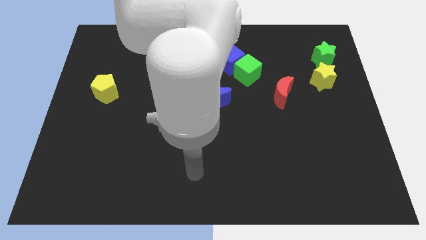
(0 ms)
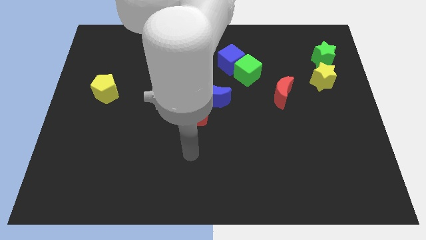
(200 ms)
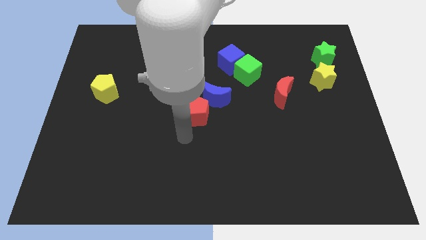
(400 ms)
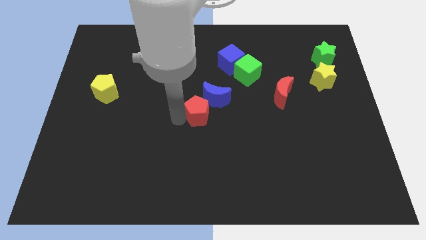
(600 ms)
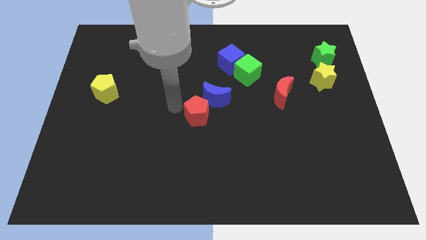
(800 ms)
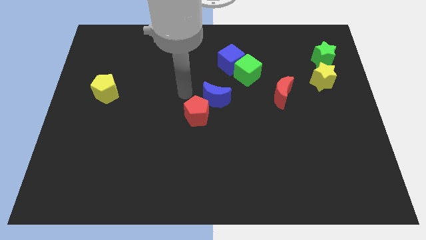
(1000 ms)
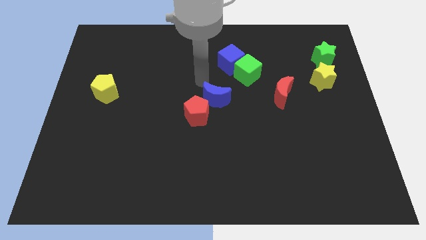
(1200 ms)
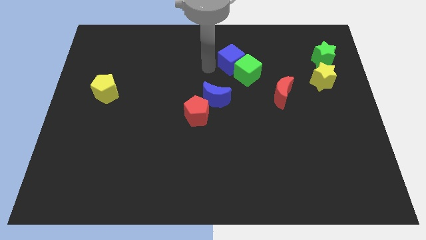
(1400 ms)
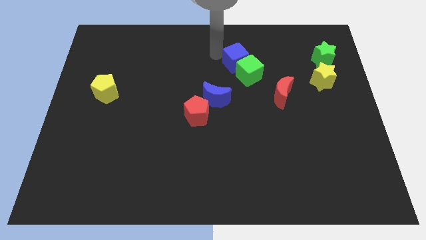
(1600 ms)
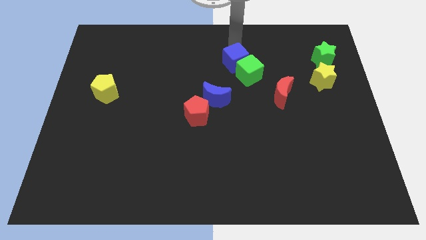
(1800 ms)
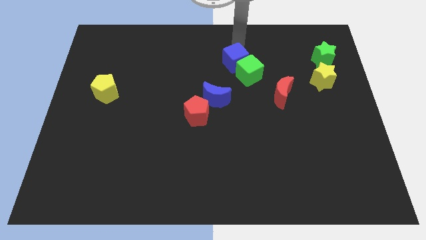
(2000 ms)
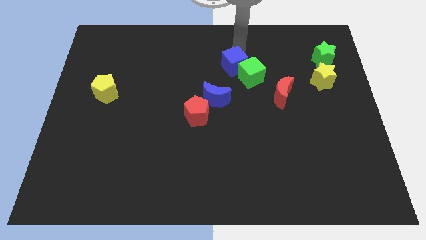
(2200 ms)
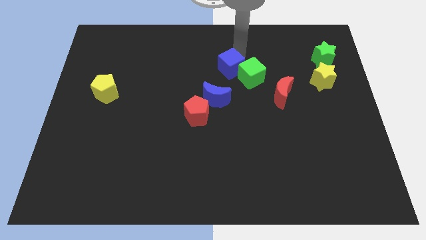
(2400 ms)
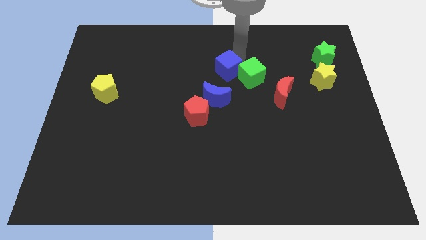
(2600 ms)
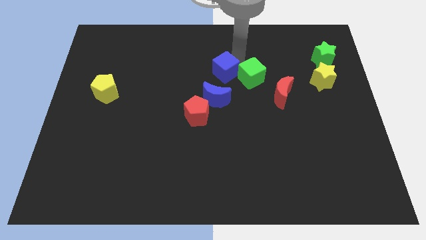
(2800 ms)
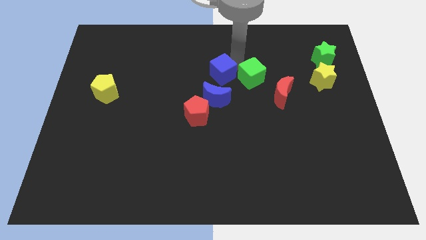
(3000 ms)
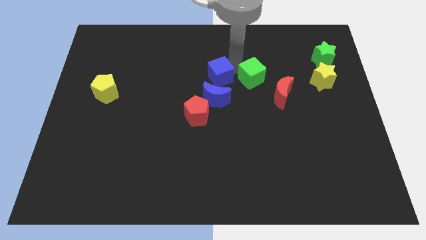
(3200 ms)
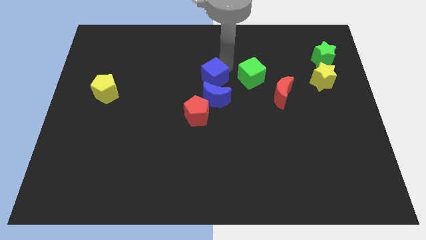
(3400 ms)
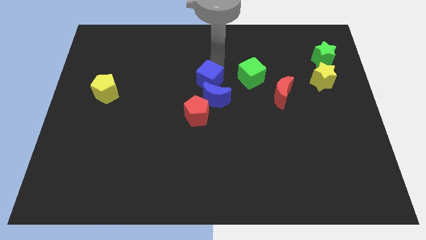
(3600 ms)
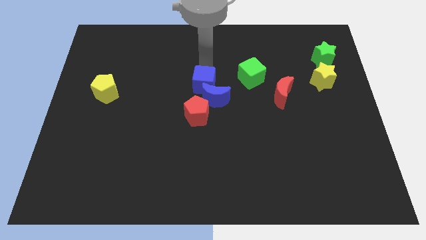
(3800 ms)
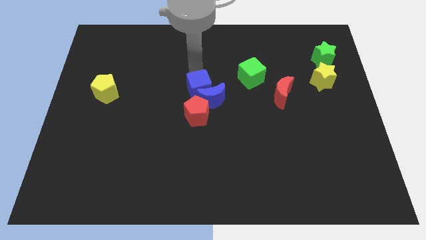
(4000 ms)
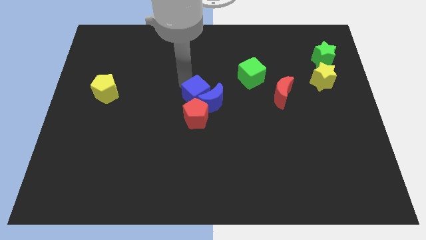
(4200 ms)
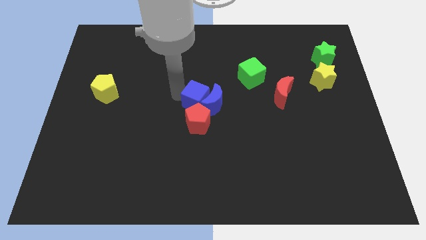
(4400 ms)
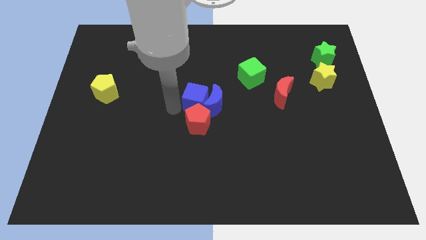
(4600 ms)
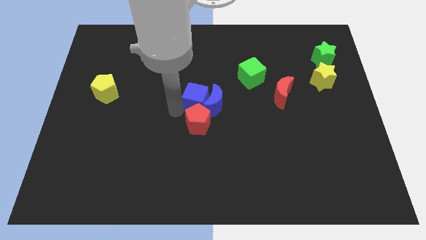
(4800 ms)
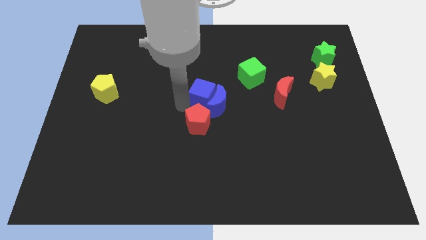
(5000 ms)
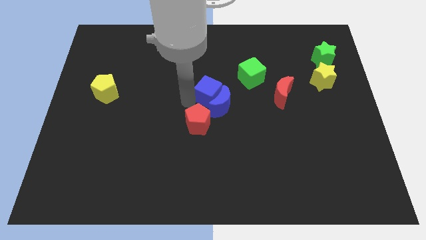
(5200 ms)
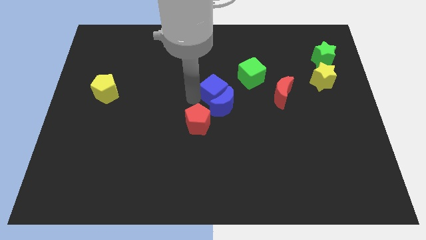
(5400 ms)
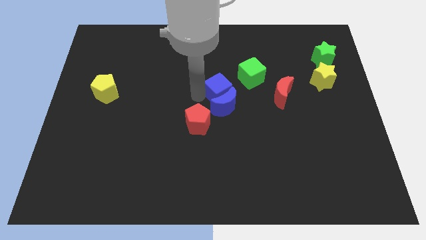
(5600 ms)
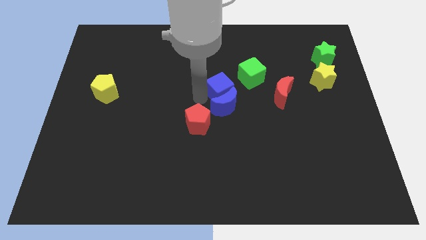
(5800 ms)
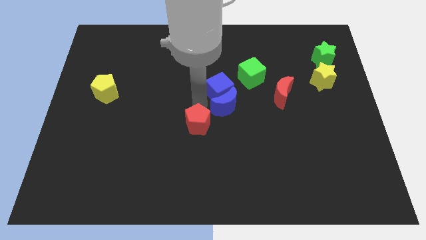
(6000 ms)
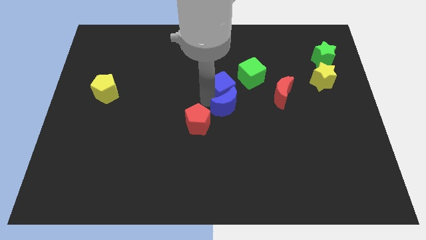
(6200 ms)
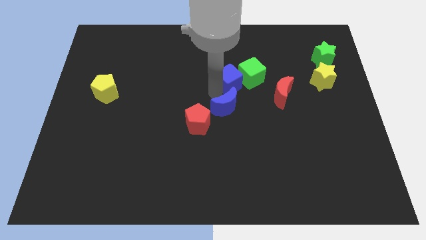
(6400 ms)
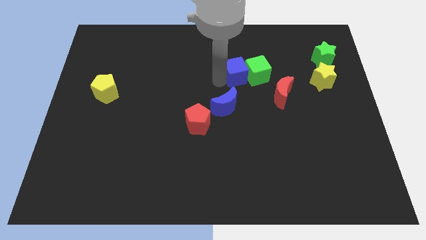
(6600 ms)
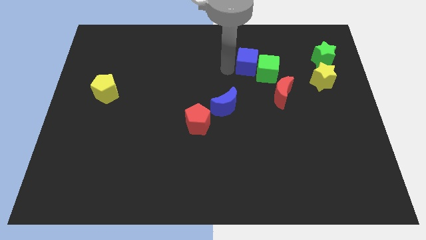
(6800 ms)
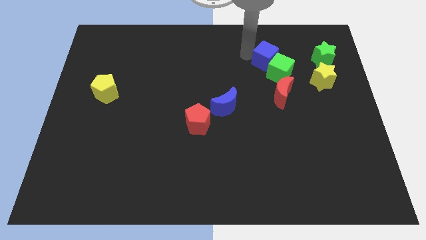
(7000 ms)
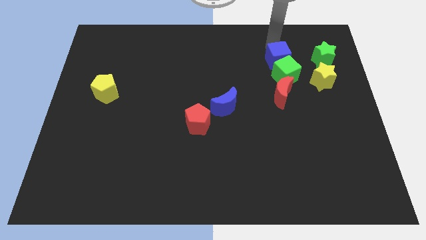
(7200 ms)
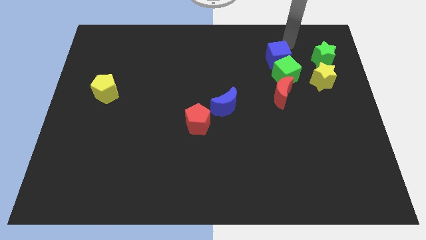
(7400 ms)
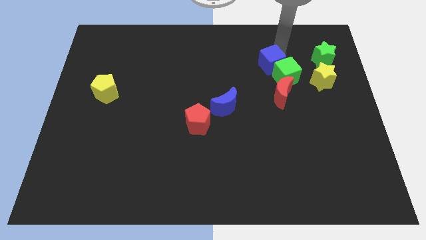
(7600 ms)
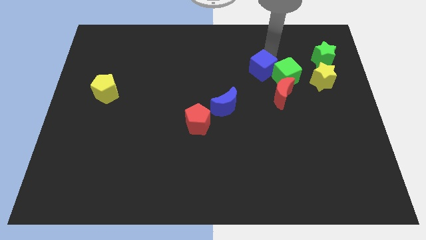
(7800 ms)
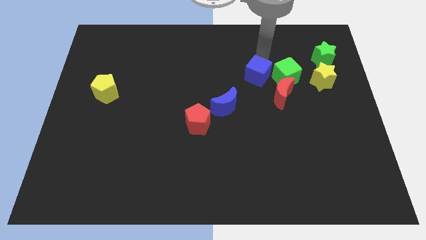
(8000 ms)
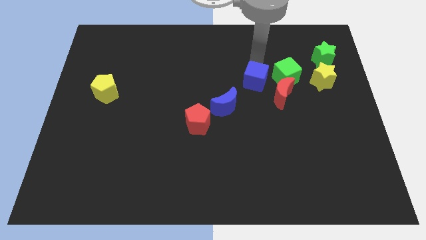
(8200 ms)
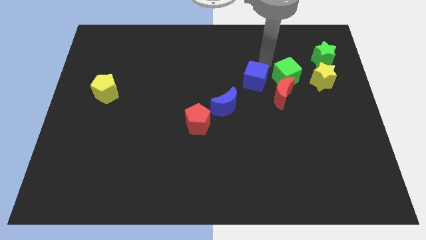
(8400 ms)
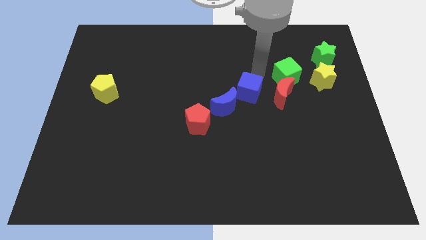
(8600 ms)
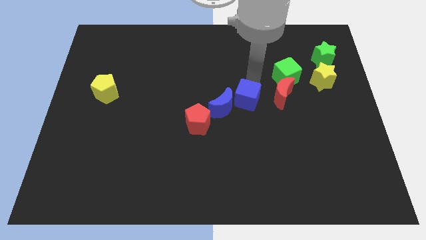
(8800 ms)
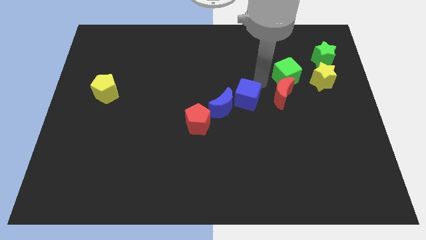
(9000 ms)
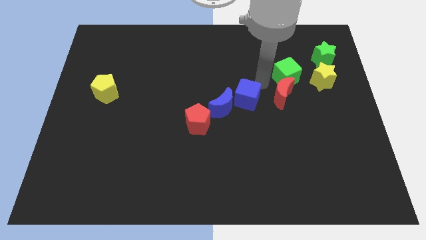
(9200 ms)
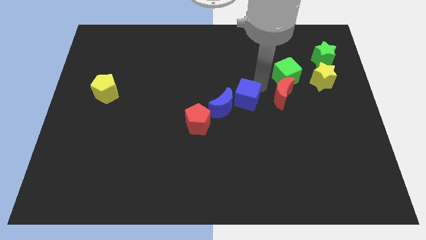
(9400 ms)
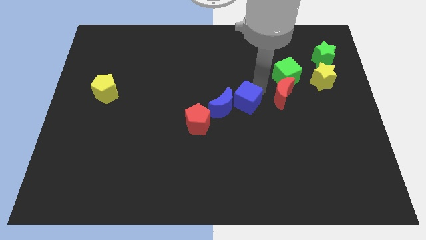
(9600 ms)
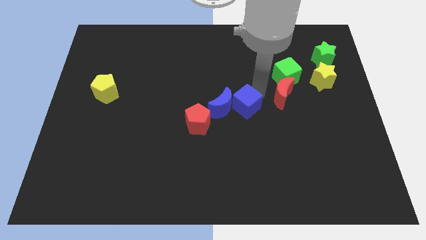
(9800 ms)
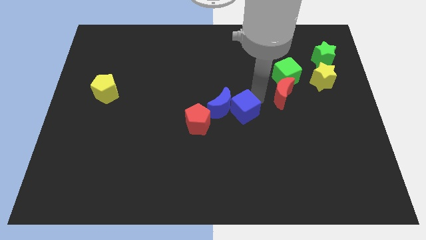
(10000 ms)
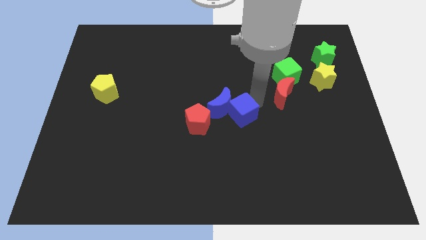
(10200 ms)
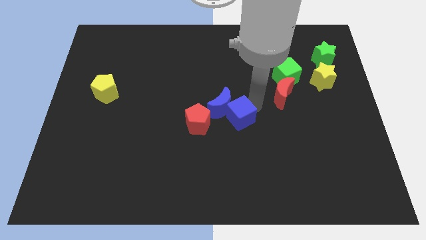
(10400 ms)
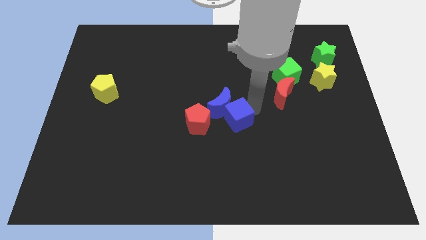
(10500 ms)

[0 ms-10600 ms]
put the blue cube to the bottom side of the blue moon

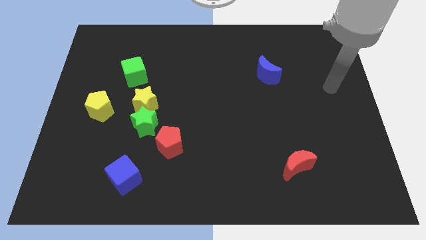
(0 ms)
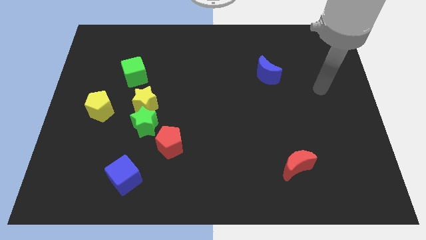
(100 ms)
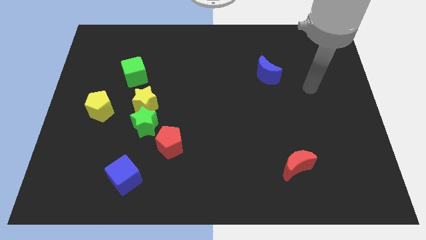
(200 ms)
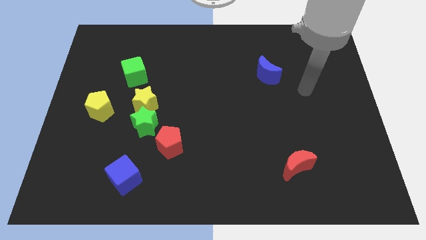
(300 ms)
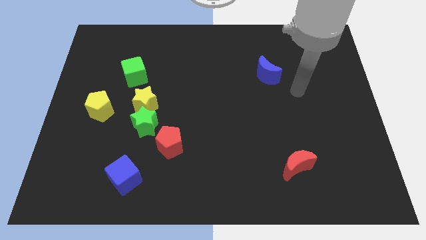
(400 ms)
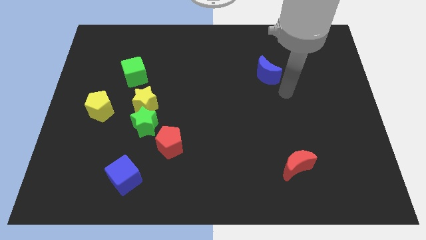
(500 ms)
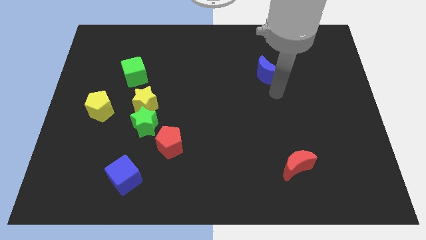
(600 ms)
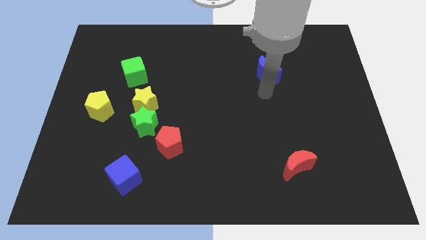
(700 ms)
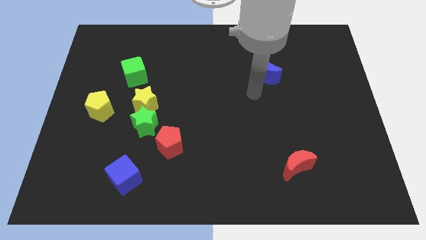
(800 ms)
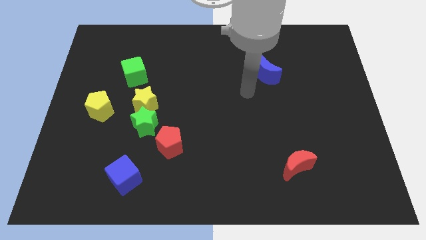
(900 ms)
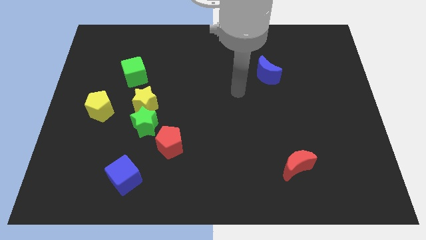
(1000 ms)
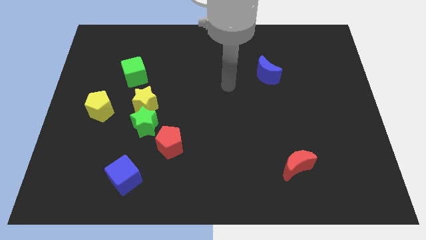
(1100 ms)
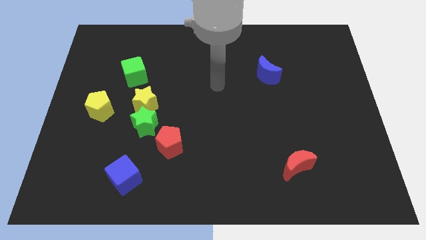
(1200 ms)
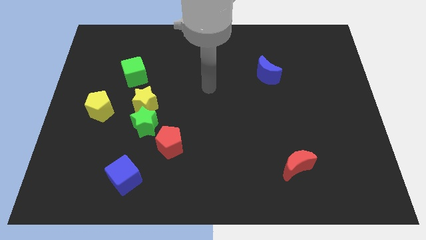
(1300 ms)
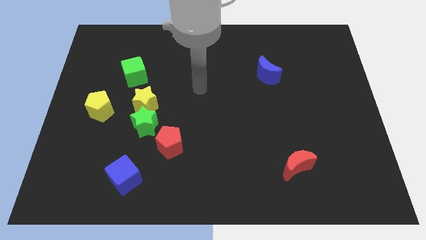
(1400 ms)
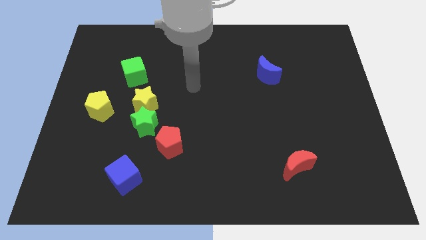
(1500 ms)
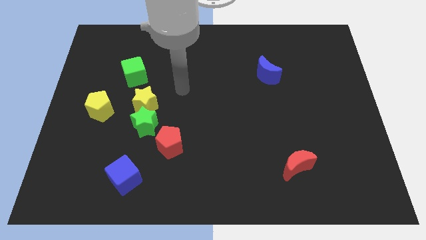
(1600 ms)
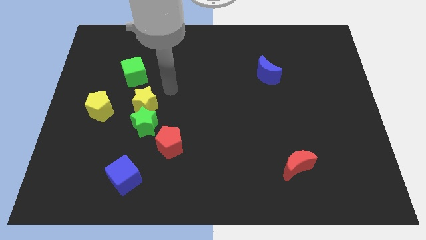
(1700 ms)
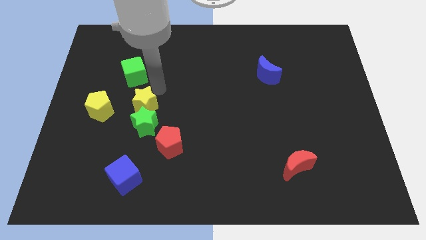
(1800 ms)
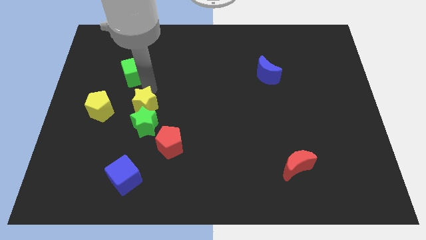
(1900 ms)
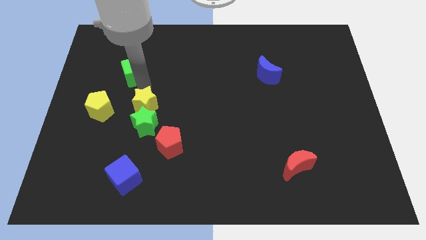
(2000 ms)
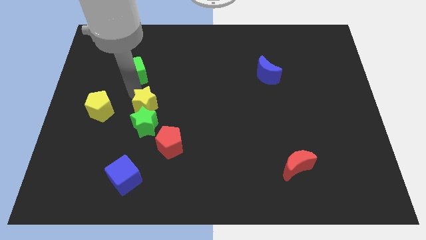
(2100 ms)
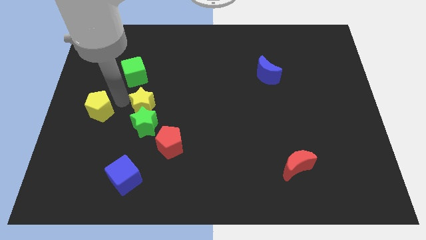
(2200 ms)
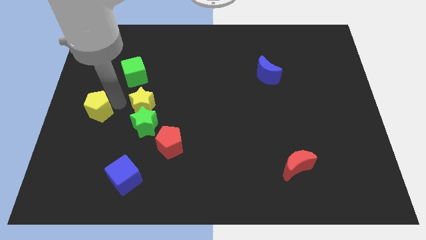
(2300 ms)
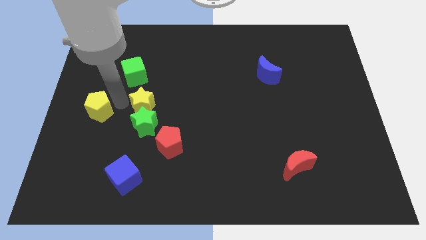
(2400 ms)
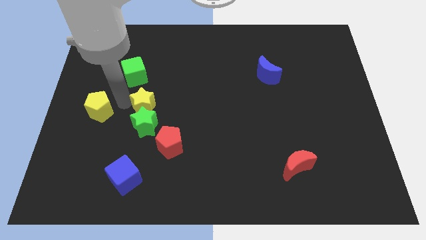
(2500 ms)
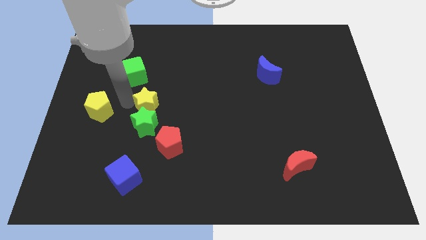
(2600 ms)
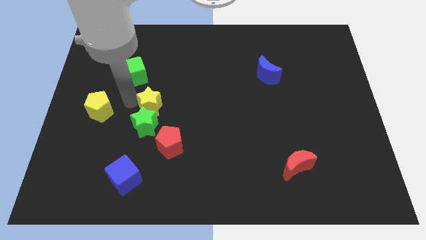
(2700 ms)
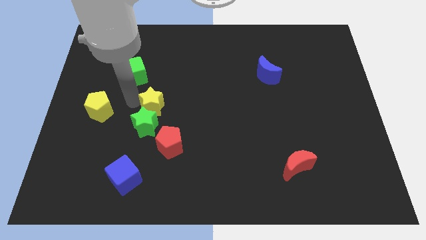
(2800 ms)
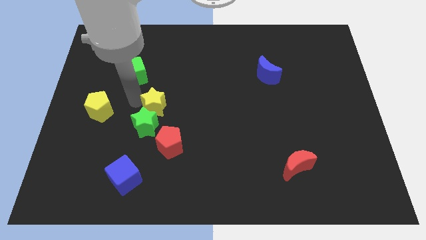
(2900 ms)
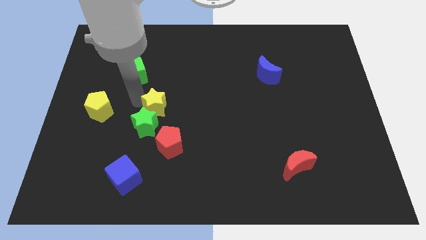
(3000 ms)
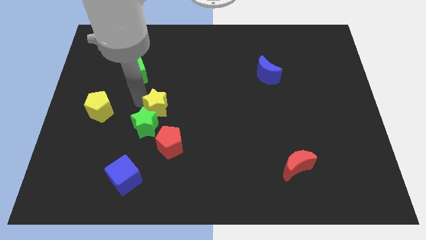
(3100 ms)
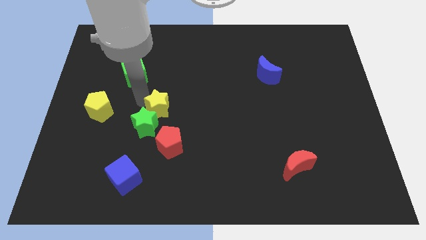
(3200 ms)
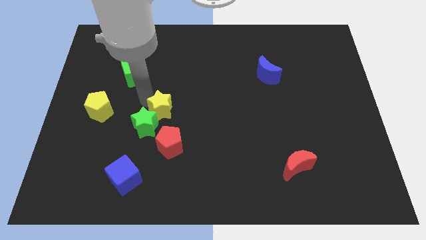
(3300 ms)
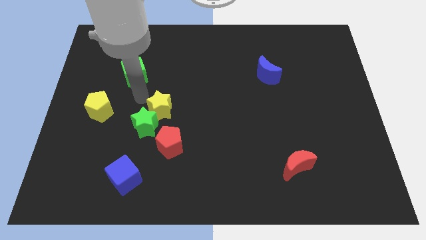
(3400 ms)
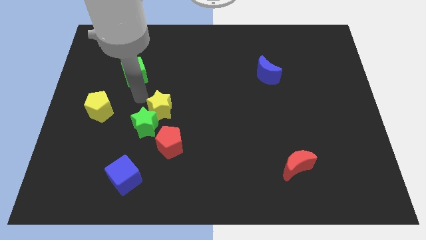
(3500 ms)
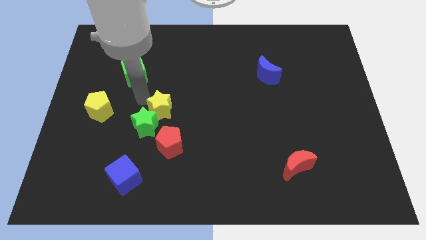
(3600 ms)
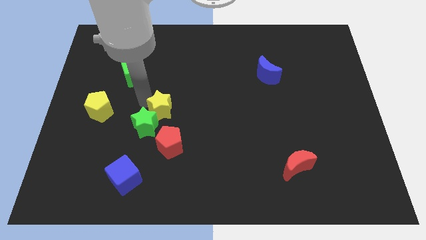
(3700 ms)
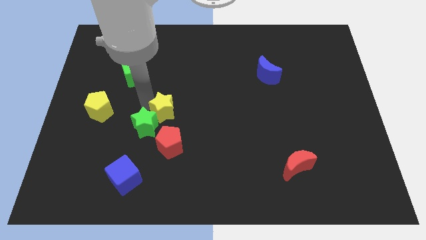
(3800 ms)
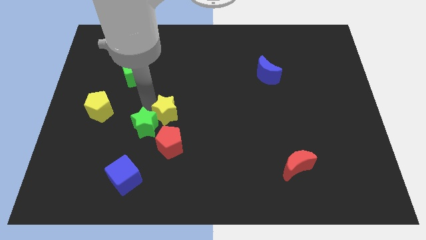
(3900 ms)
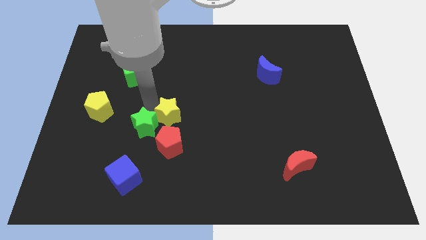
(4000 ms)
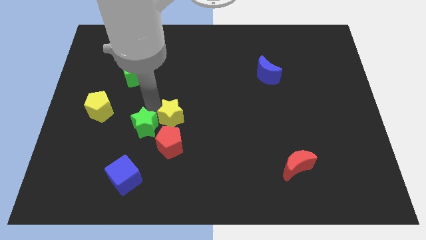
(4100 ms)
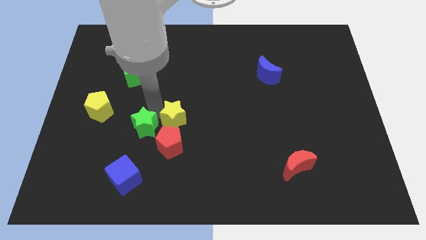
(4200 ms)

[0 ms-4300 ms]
push the yellow star diagonally up and to the right of the red pentagon
